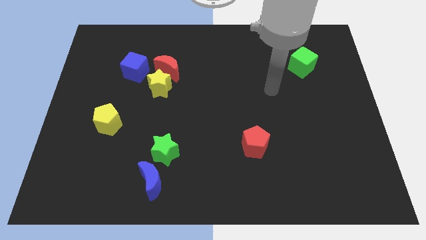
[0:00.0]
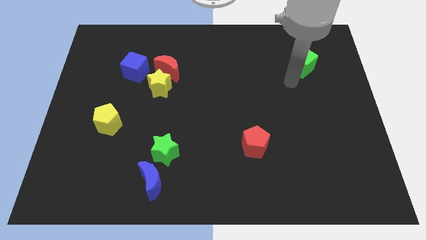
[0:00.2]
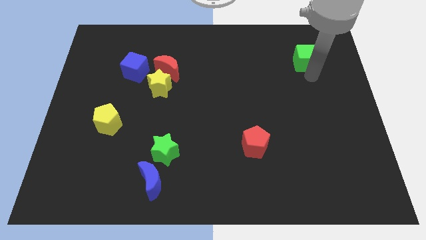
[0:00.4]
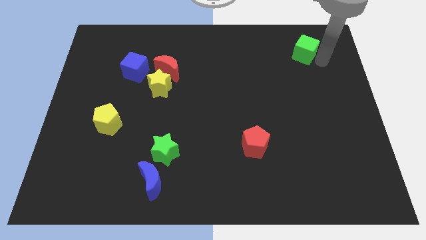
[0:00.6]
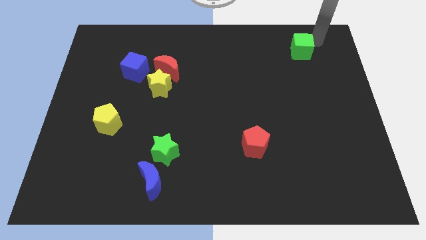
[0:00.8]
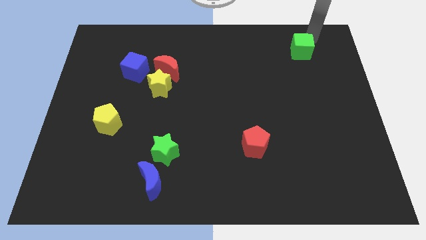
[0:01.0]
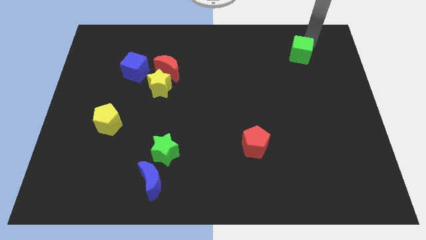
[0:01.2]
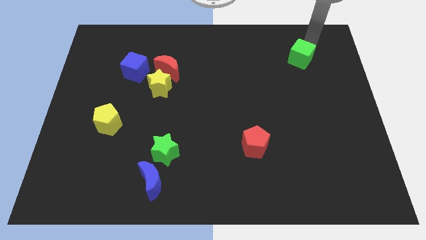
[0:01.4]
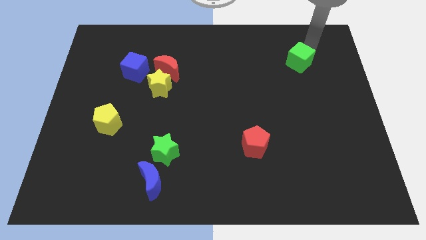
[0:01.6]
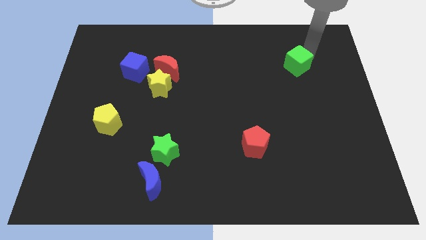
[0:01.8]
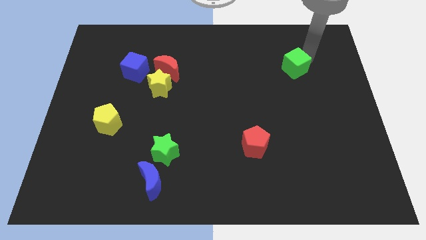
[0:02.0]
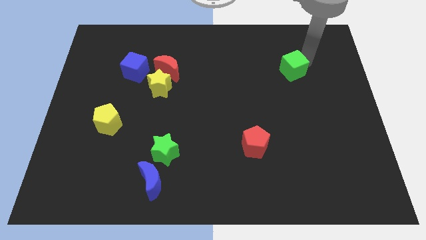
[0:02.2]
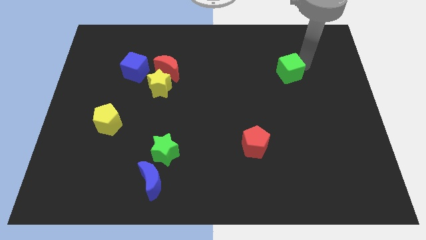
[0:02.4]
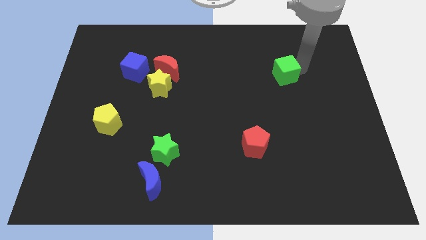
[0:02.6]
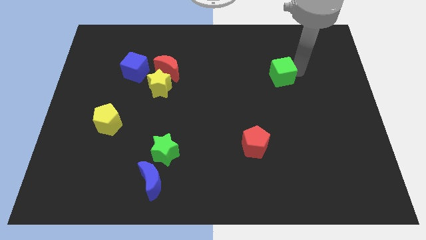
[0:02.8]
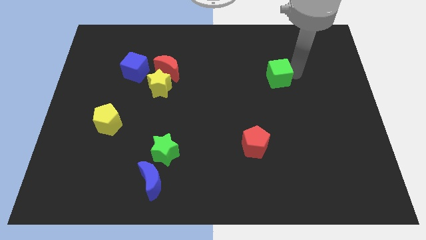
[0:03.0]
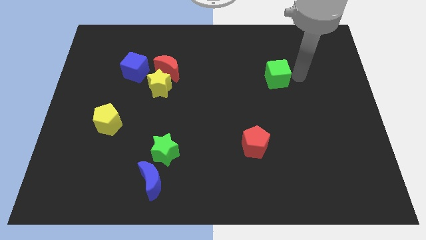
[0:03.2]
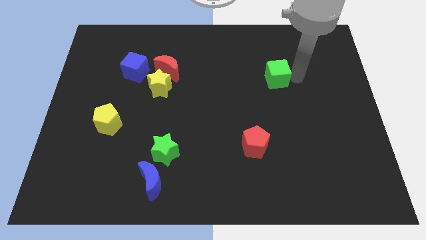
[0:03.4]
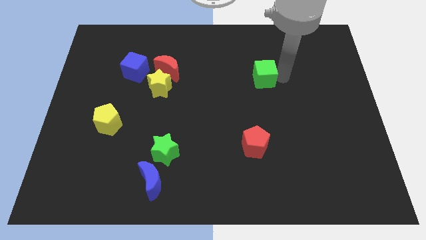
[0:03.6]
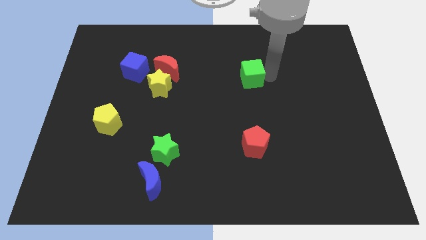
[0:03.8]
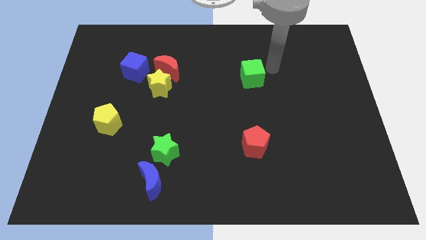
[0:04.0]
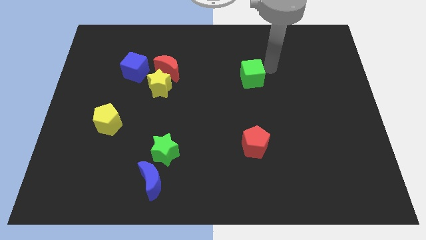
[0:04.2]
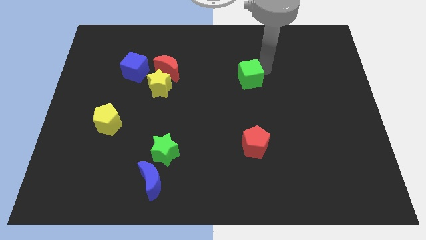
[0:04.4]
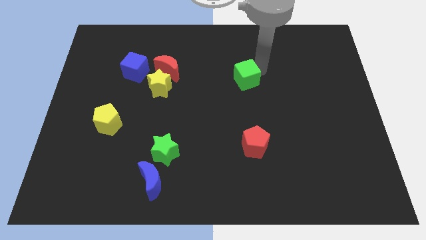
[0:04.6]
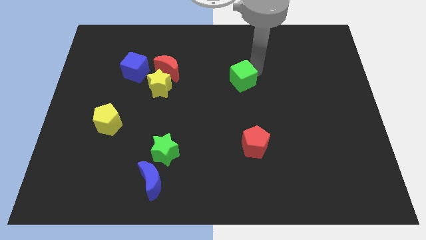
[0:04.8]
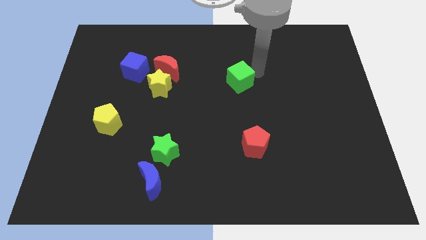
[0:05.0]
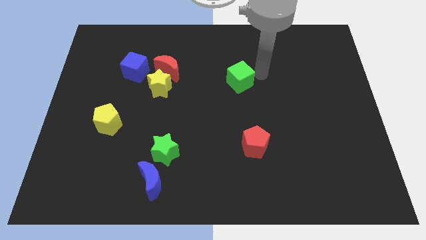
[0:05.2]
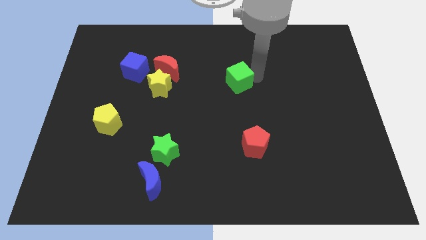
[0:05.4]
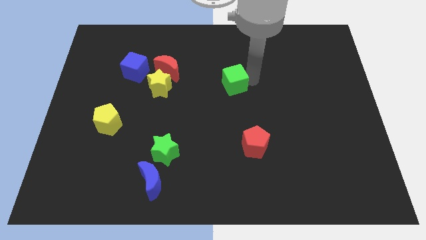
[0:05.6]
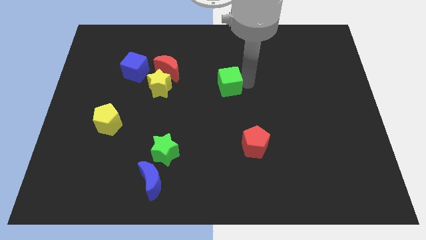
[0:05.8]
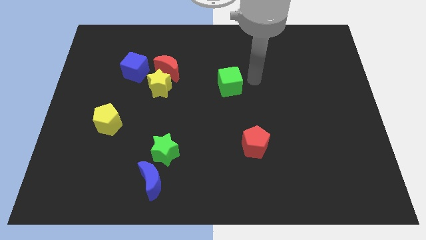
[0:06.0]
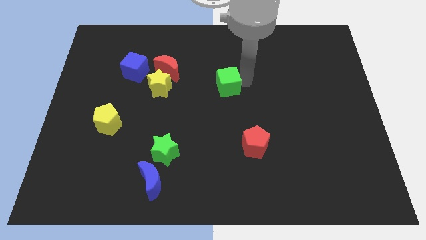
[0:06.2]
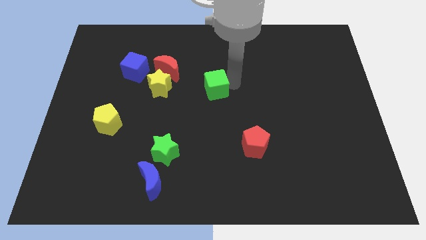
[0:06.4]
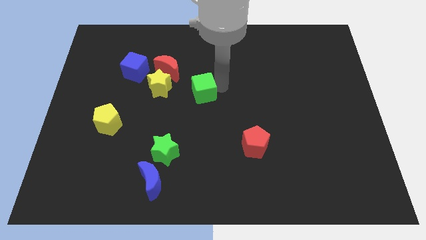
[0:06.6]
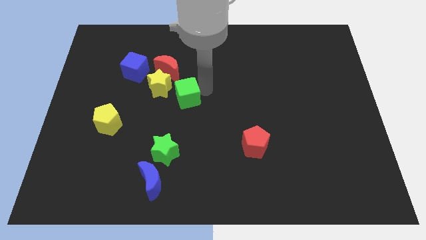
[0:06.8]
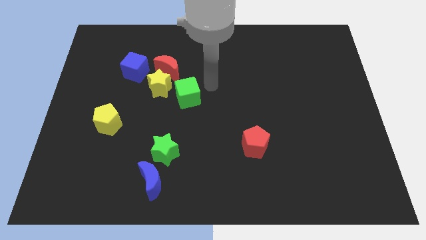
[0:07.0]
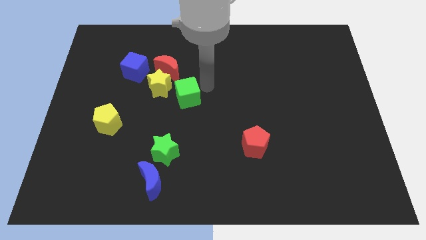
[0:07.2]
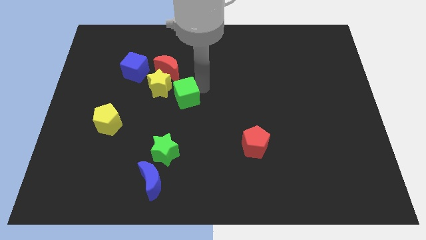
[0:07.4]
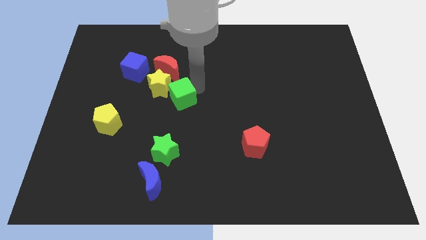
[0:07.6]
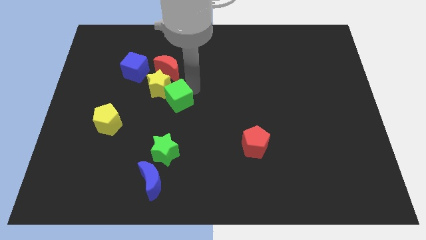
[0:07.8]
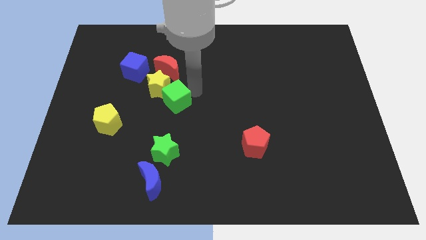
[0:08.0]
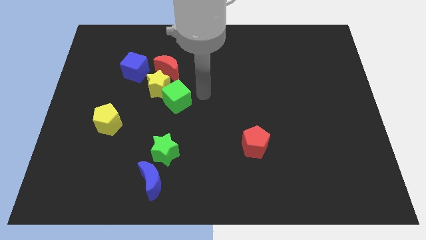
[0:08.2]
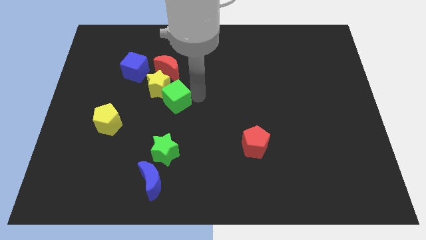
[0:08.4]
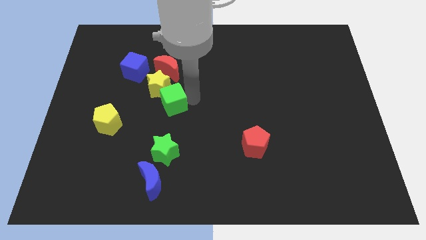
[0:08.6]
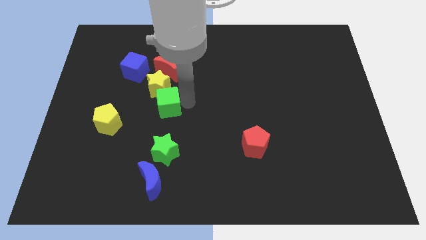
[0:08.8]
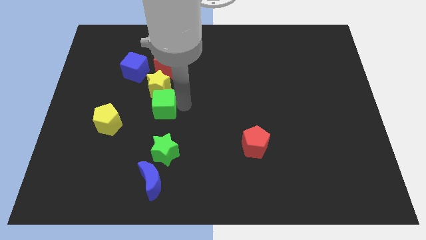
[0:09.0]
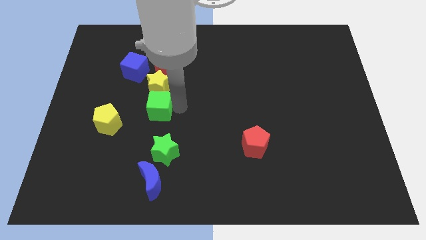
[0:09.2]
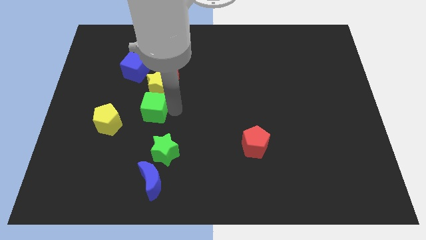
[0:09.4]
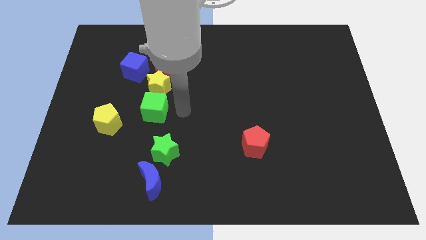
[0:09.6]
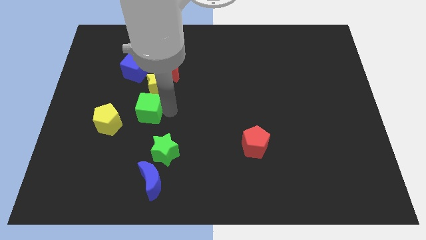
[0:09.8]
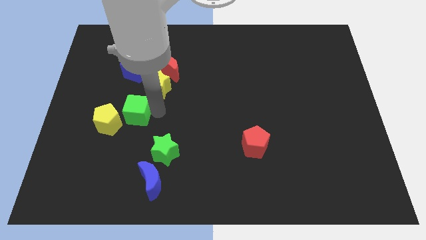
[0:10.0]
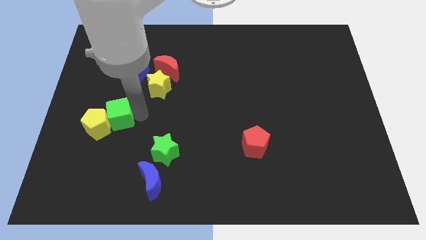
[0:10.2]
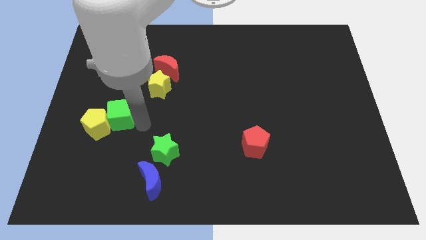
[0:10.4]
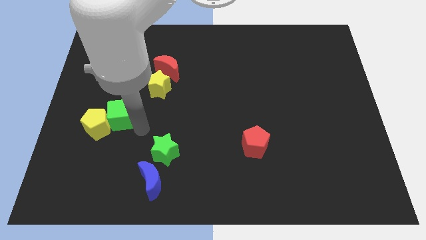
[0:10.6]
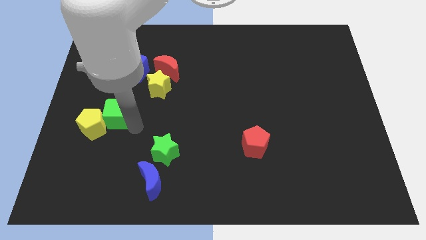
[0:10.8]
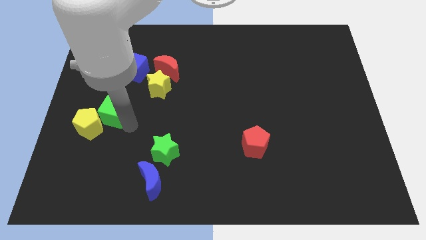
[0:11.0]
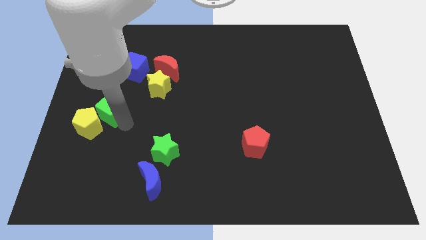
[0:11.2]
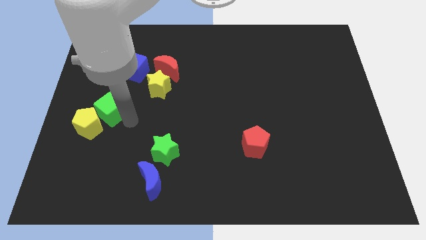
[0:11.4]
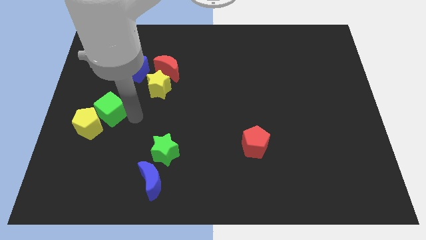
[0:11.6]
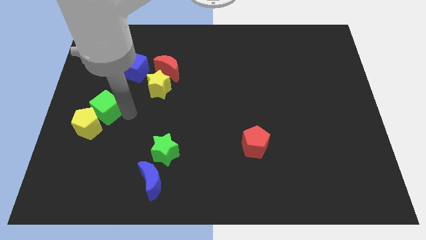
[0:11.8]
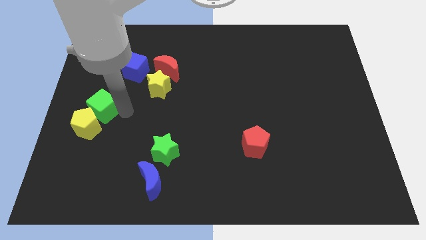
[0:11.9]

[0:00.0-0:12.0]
put the green cube to the center left

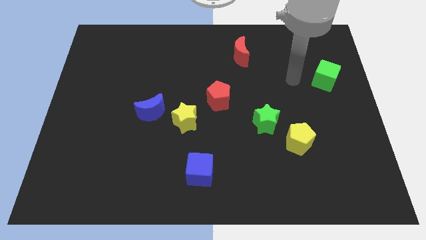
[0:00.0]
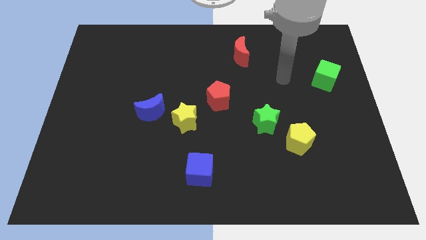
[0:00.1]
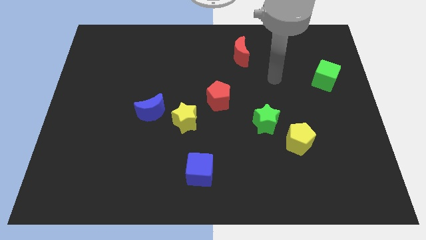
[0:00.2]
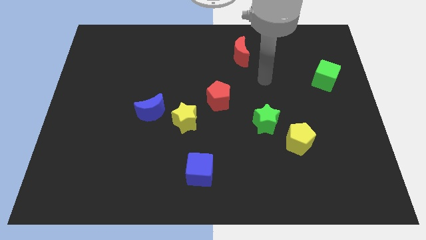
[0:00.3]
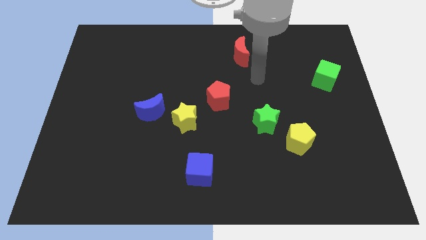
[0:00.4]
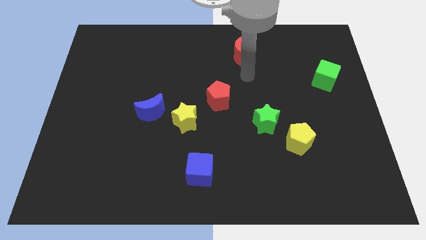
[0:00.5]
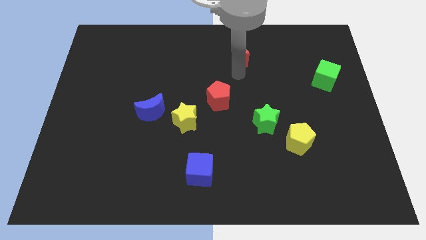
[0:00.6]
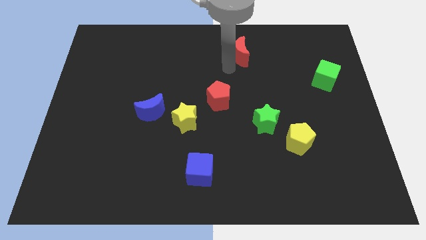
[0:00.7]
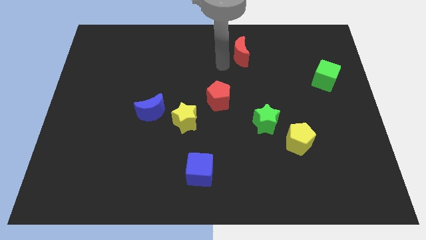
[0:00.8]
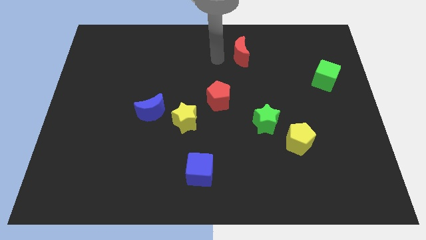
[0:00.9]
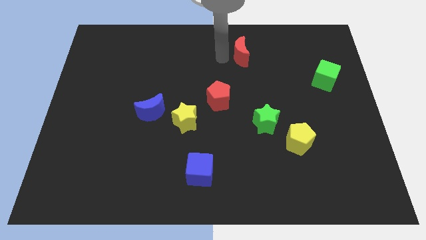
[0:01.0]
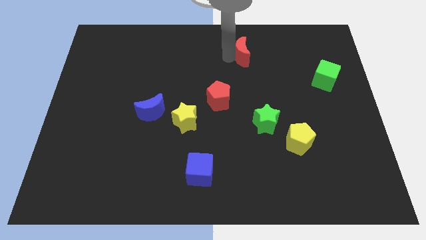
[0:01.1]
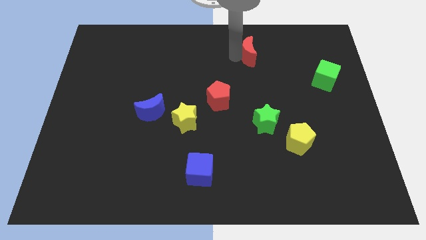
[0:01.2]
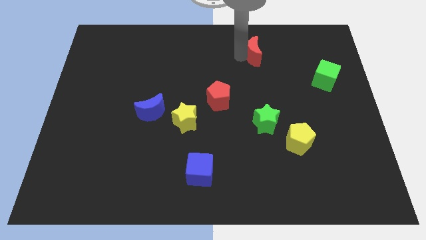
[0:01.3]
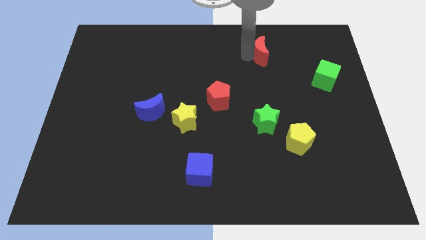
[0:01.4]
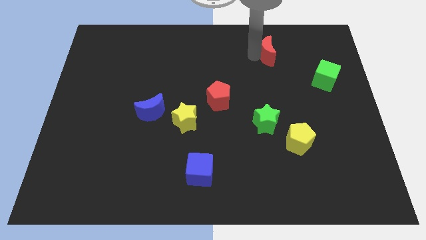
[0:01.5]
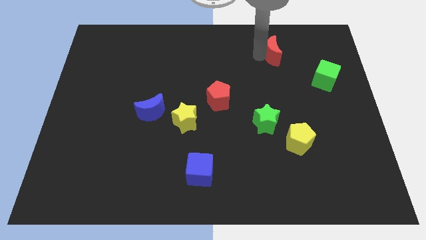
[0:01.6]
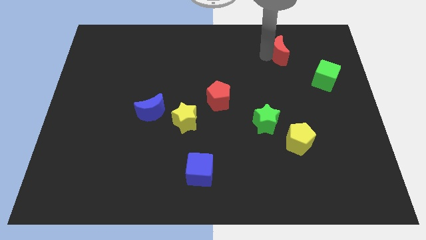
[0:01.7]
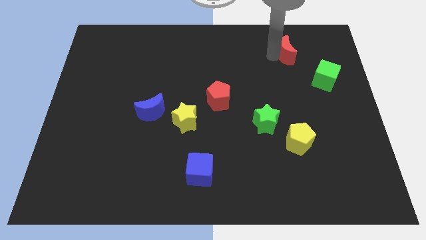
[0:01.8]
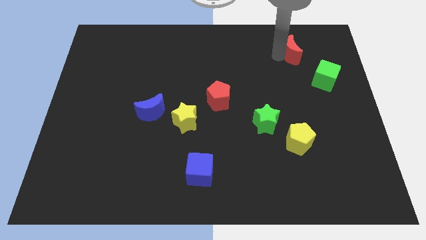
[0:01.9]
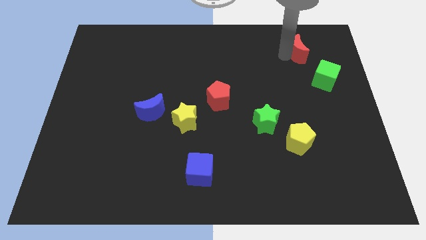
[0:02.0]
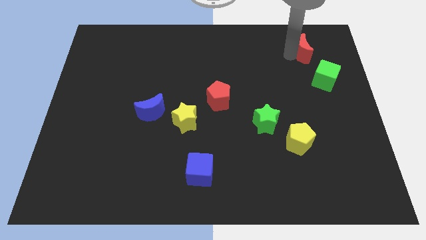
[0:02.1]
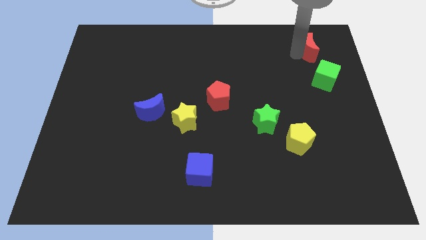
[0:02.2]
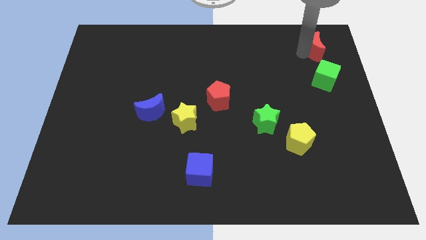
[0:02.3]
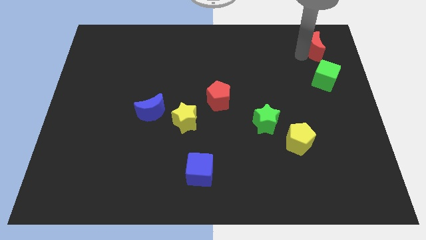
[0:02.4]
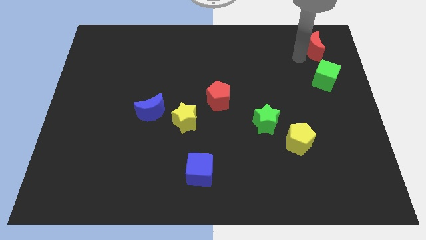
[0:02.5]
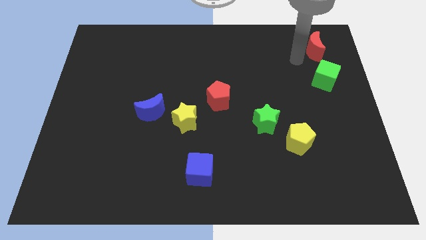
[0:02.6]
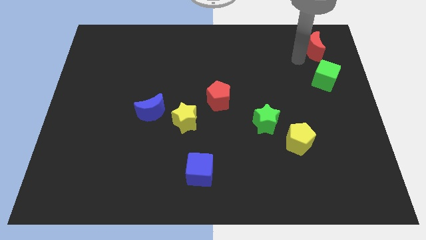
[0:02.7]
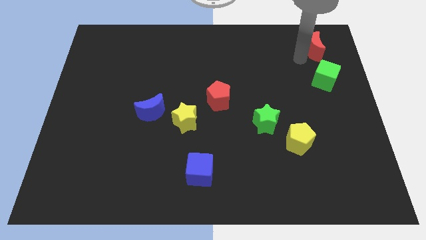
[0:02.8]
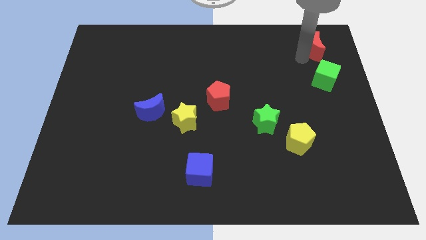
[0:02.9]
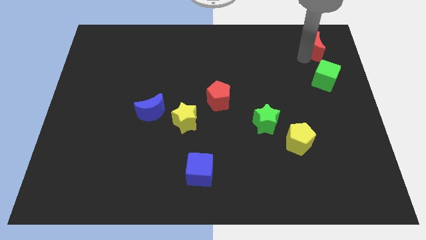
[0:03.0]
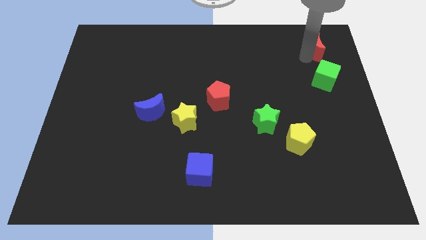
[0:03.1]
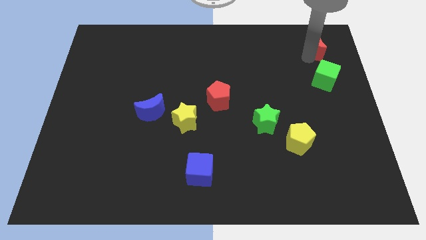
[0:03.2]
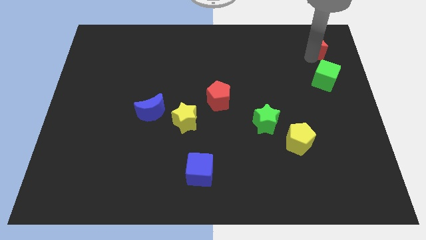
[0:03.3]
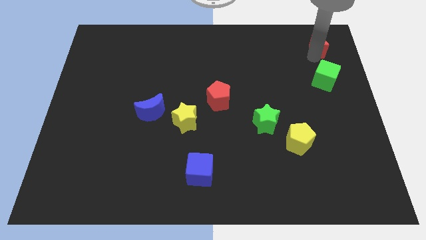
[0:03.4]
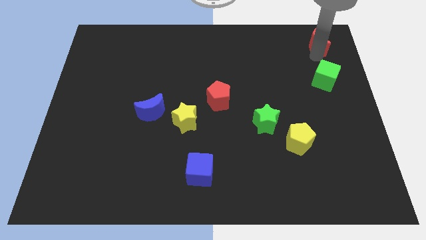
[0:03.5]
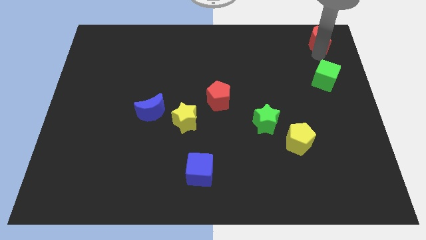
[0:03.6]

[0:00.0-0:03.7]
slide the red moon to the top right of the board
